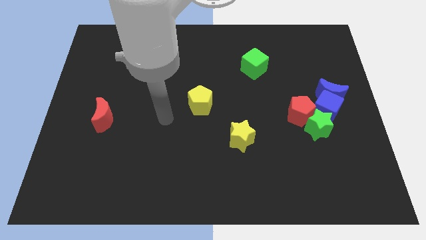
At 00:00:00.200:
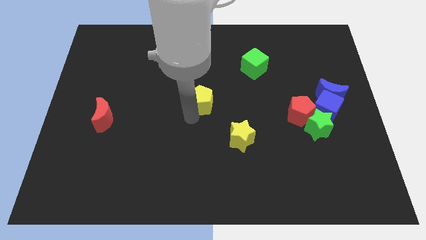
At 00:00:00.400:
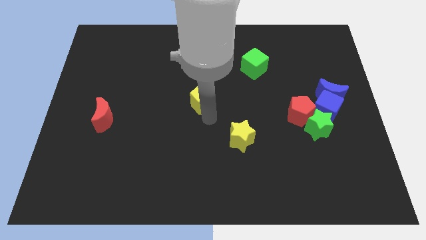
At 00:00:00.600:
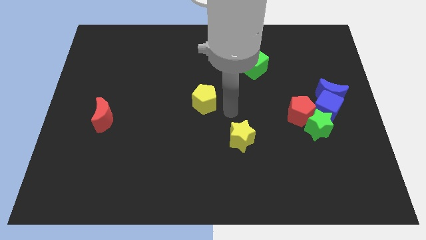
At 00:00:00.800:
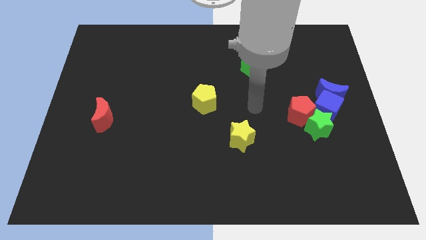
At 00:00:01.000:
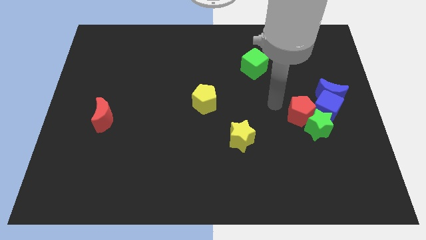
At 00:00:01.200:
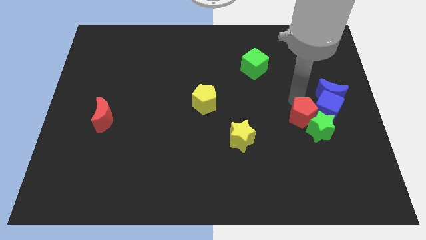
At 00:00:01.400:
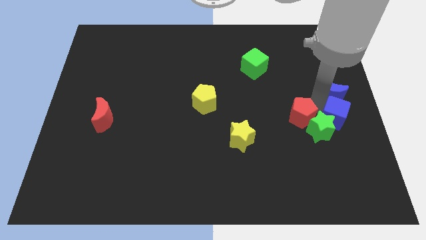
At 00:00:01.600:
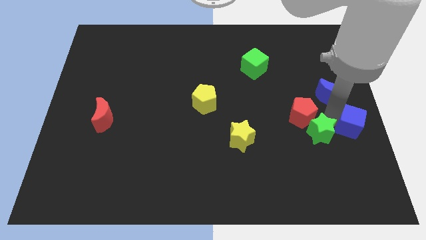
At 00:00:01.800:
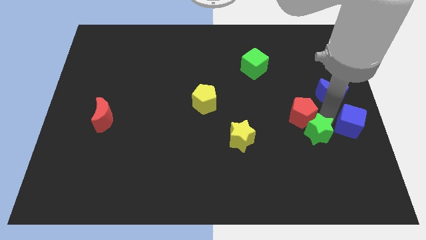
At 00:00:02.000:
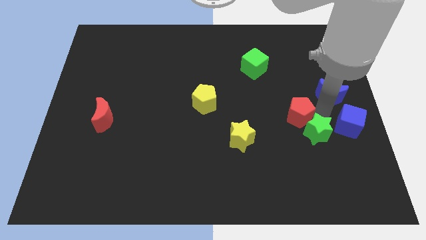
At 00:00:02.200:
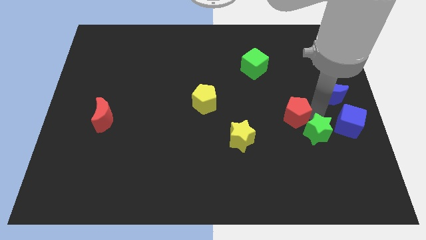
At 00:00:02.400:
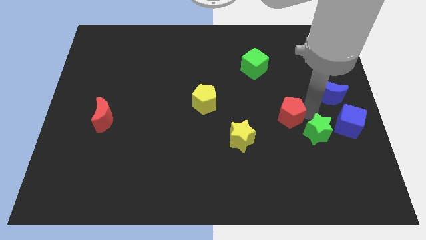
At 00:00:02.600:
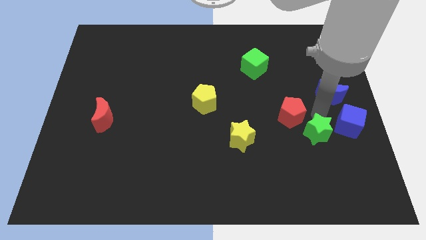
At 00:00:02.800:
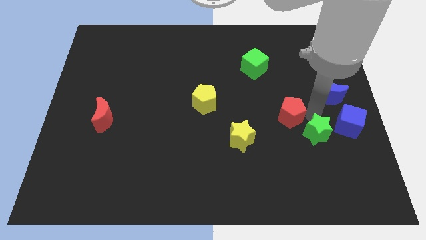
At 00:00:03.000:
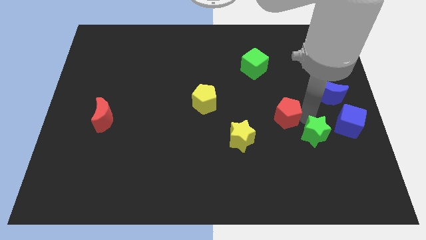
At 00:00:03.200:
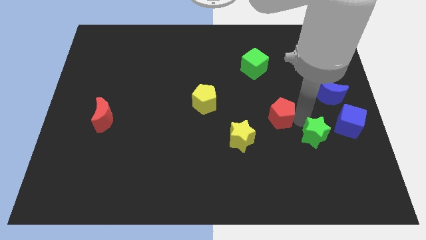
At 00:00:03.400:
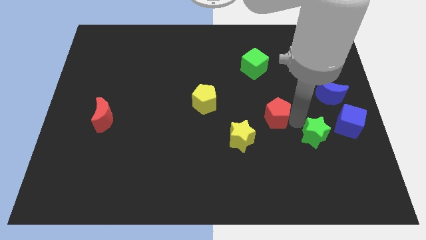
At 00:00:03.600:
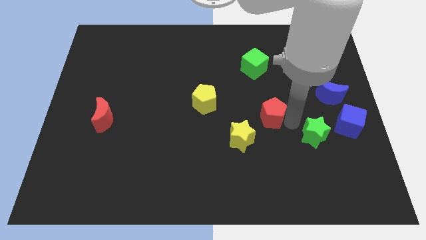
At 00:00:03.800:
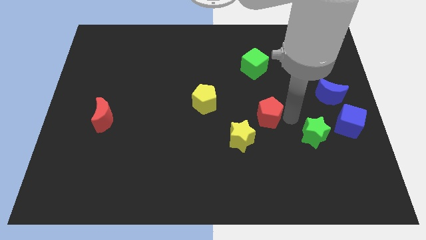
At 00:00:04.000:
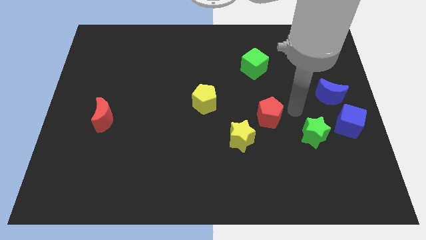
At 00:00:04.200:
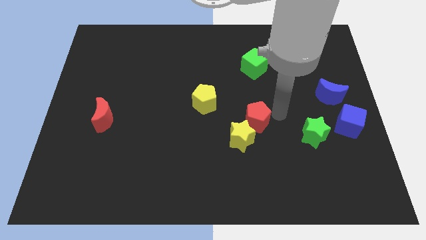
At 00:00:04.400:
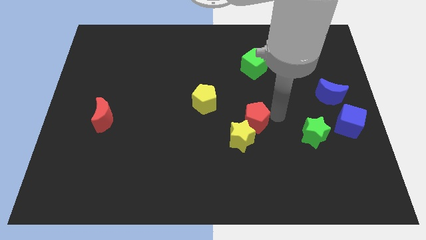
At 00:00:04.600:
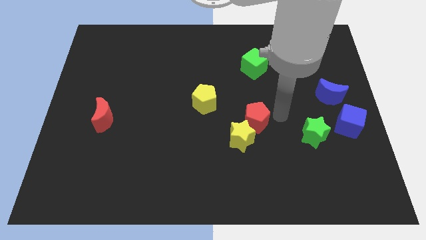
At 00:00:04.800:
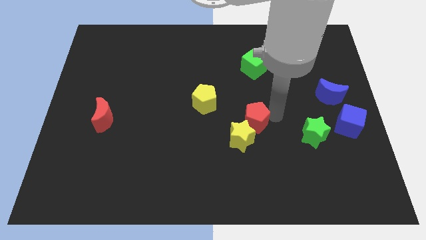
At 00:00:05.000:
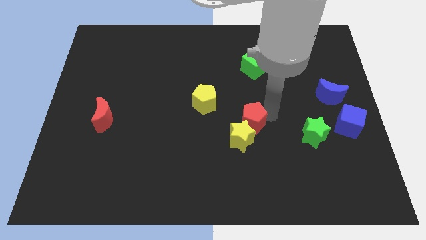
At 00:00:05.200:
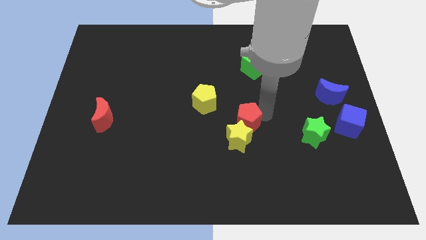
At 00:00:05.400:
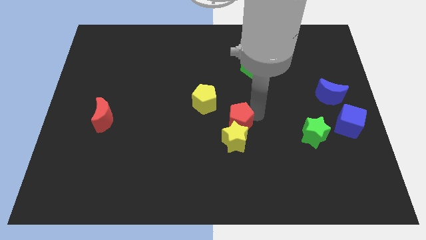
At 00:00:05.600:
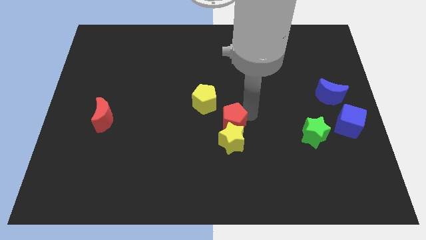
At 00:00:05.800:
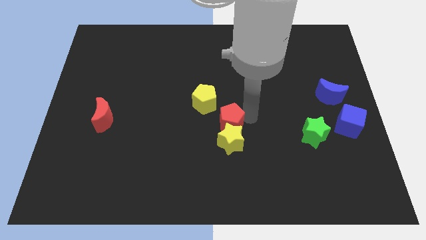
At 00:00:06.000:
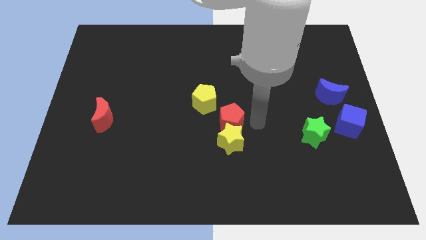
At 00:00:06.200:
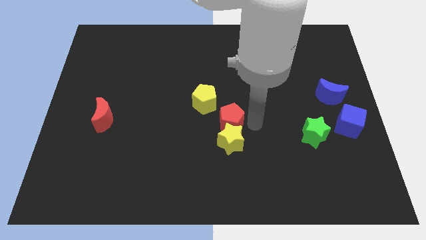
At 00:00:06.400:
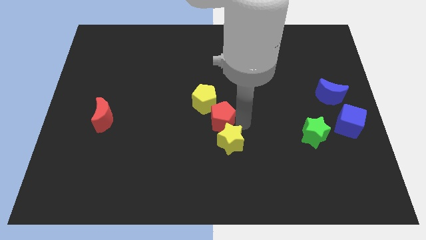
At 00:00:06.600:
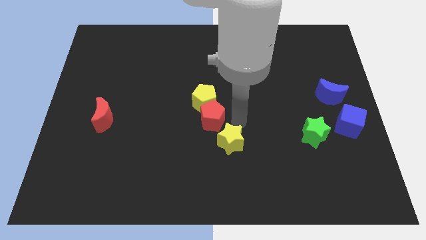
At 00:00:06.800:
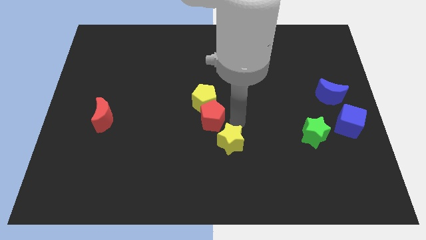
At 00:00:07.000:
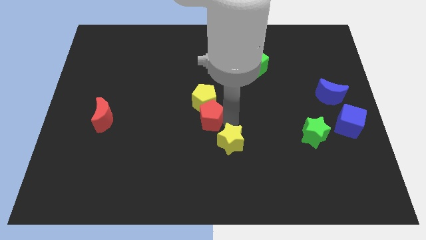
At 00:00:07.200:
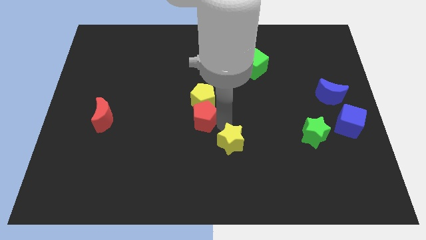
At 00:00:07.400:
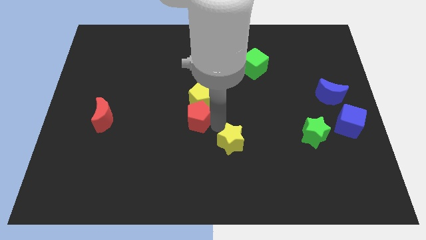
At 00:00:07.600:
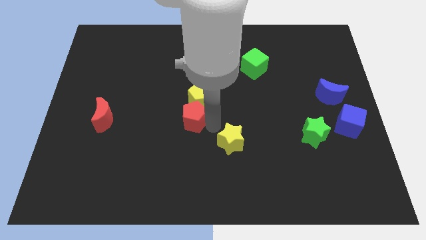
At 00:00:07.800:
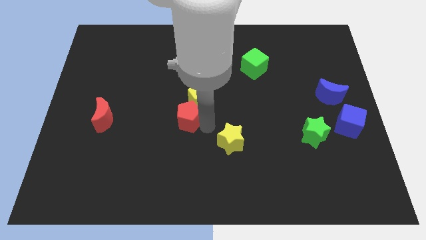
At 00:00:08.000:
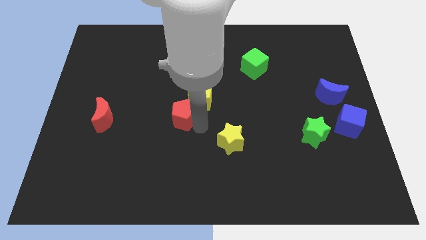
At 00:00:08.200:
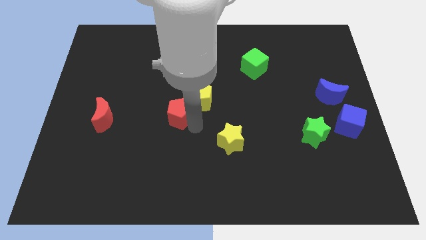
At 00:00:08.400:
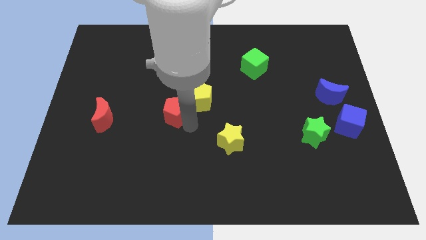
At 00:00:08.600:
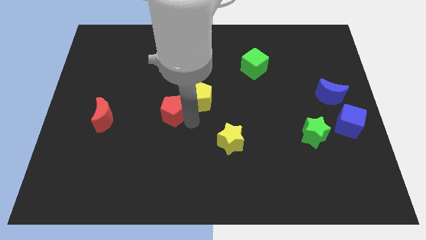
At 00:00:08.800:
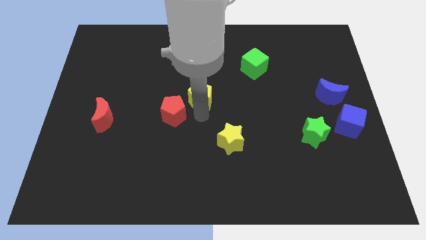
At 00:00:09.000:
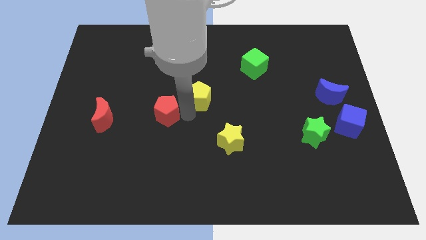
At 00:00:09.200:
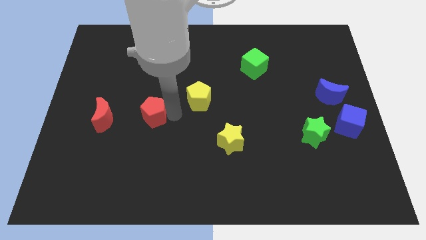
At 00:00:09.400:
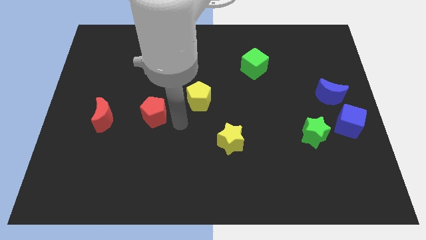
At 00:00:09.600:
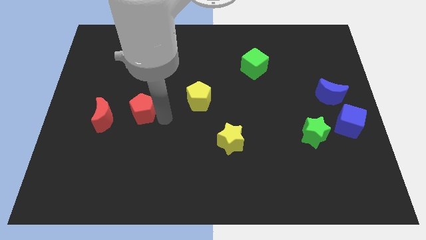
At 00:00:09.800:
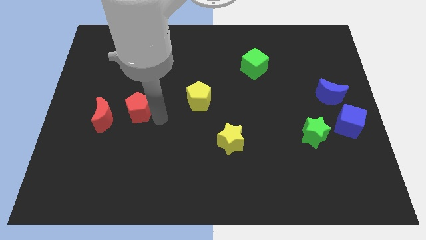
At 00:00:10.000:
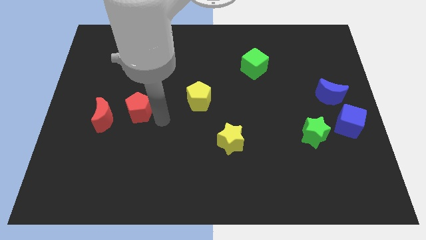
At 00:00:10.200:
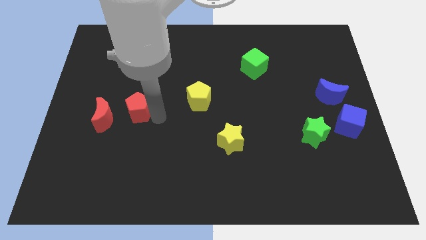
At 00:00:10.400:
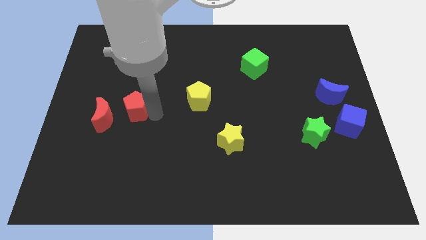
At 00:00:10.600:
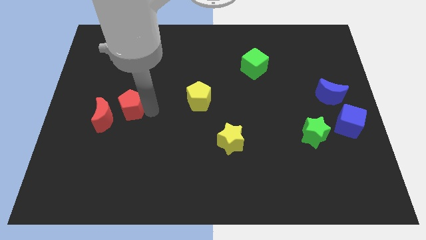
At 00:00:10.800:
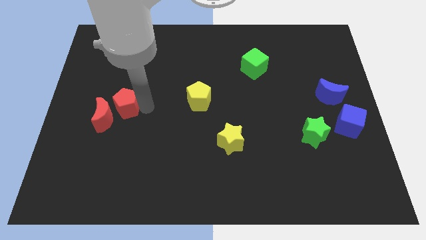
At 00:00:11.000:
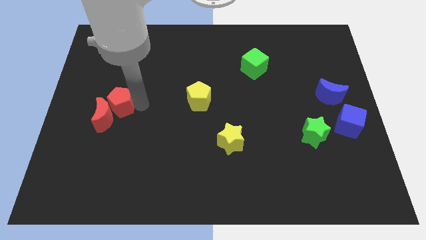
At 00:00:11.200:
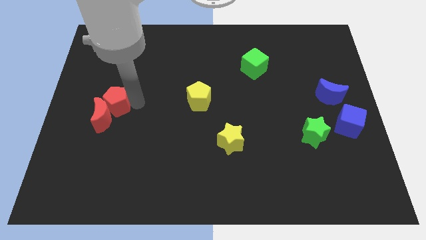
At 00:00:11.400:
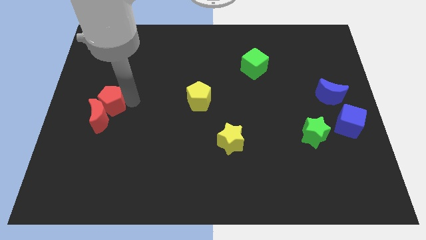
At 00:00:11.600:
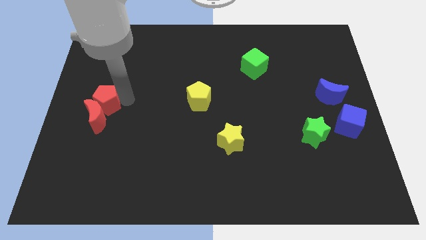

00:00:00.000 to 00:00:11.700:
slide the red pentagon to the left side of the board
